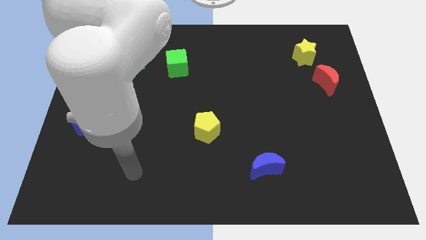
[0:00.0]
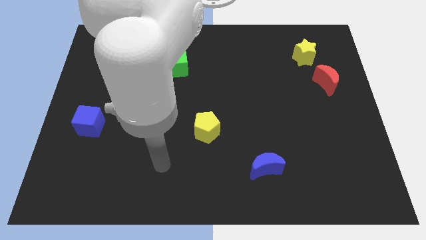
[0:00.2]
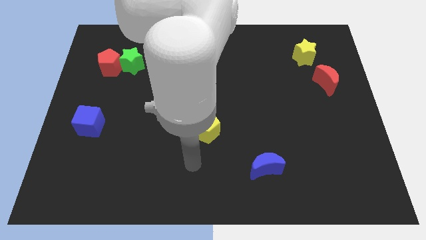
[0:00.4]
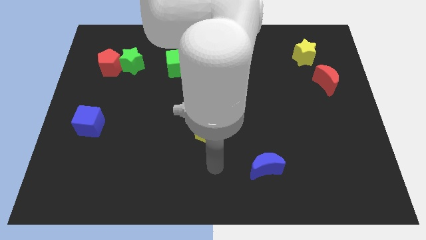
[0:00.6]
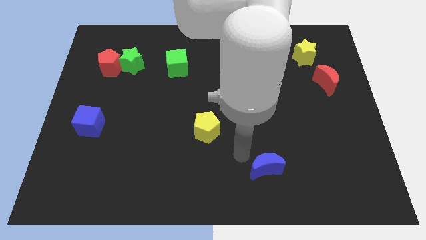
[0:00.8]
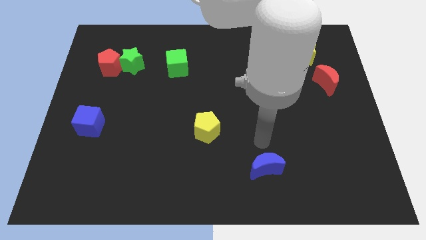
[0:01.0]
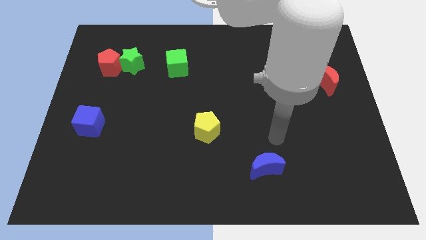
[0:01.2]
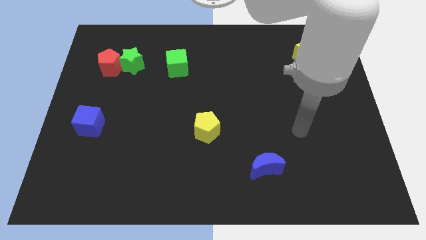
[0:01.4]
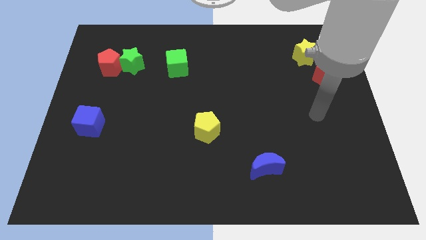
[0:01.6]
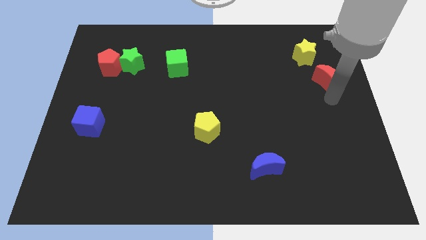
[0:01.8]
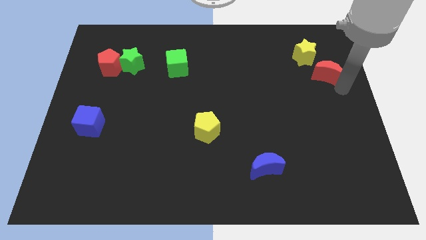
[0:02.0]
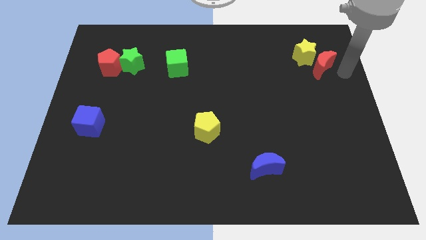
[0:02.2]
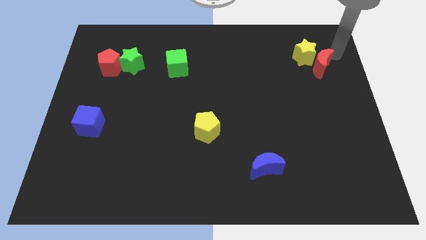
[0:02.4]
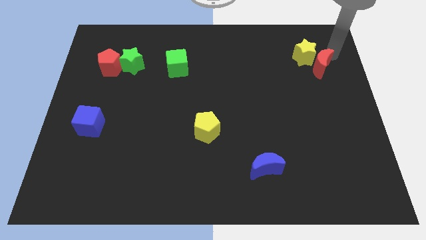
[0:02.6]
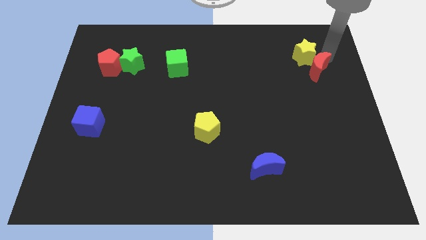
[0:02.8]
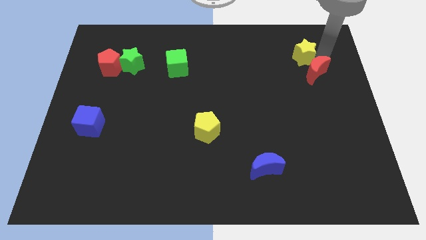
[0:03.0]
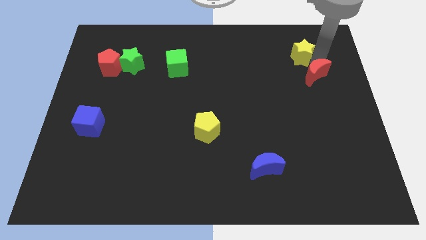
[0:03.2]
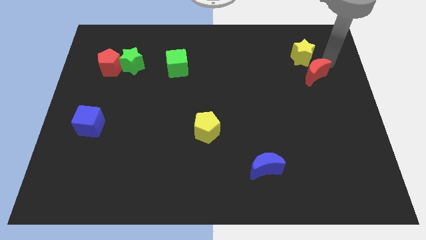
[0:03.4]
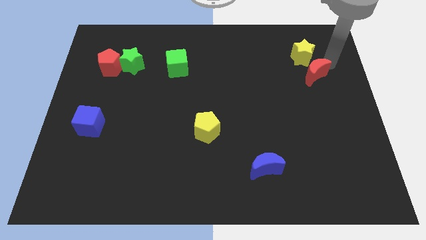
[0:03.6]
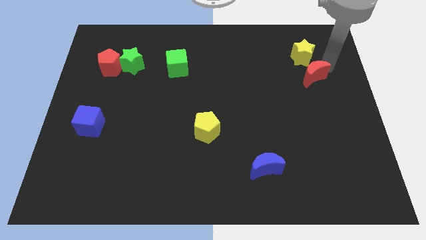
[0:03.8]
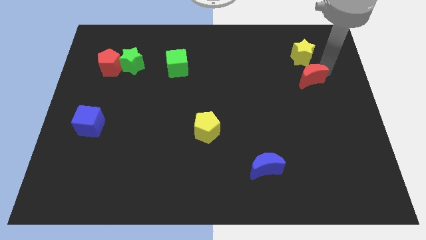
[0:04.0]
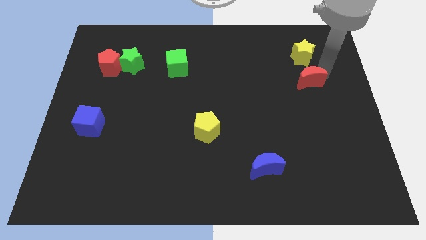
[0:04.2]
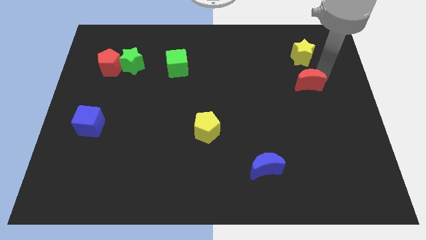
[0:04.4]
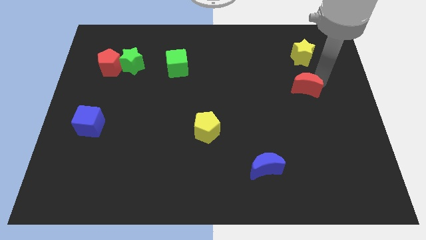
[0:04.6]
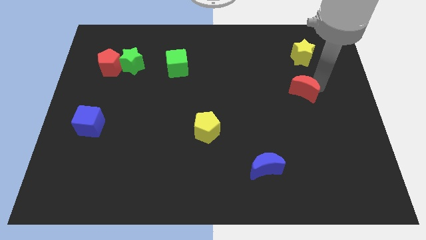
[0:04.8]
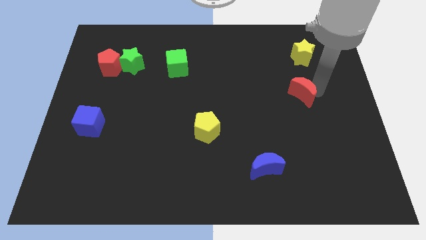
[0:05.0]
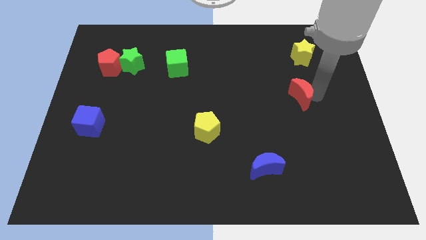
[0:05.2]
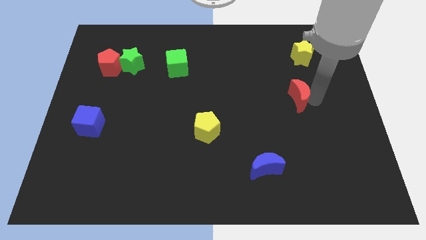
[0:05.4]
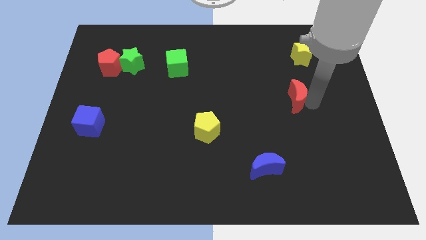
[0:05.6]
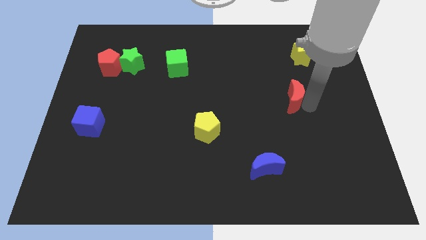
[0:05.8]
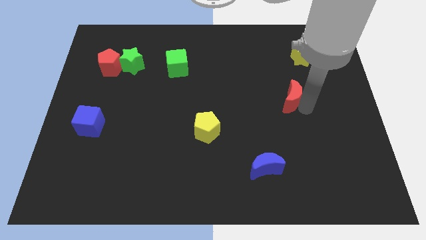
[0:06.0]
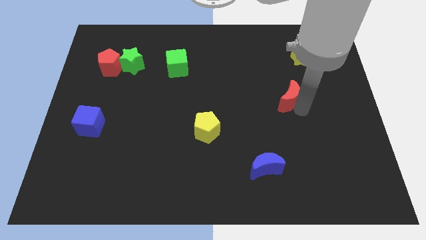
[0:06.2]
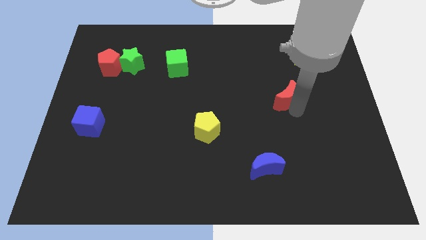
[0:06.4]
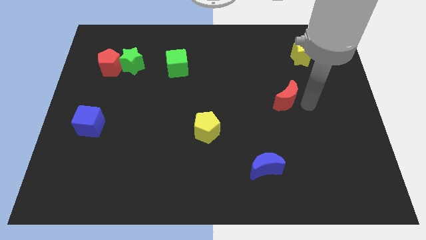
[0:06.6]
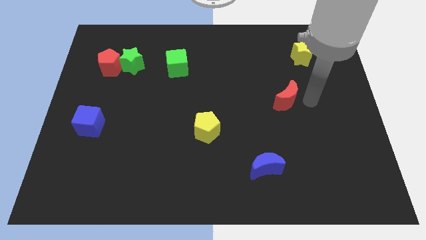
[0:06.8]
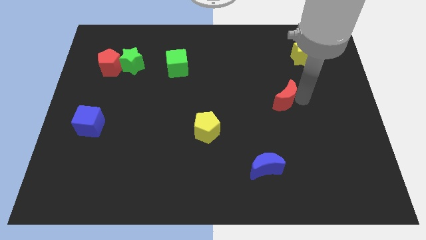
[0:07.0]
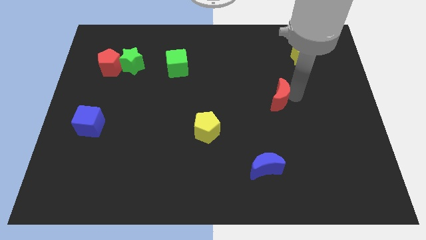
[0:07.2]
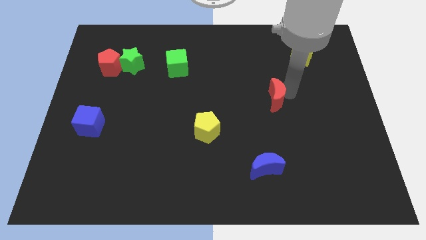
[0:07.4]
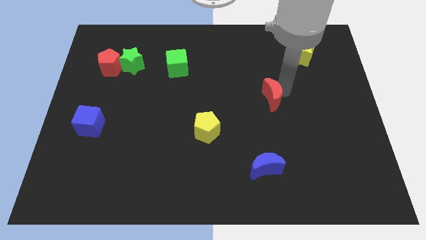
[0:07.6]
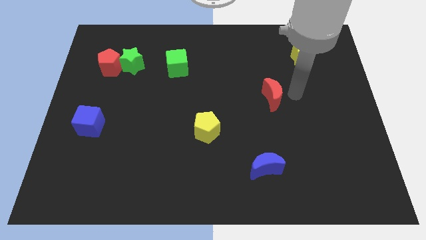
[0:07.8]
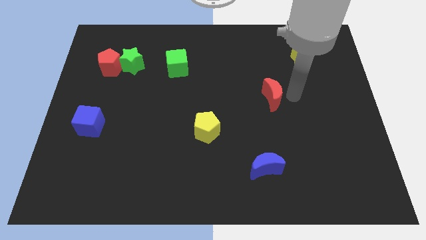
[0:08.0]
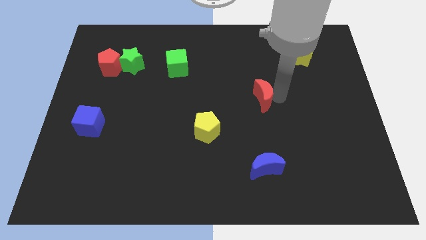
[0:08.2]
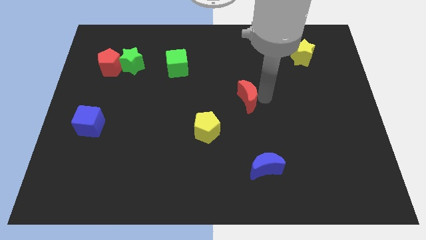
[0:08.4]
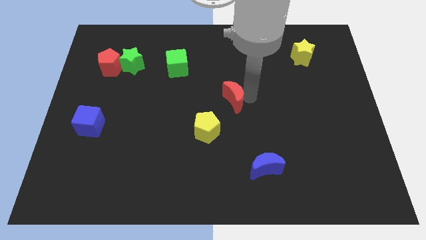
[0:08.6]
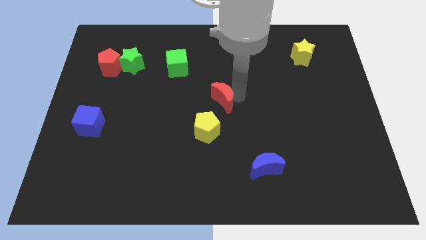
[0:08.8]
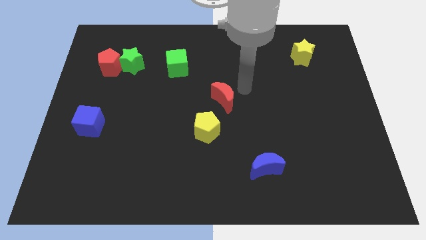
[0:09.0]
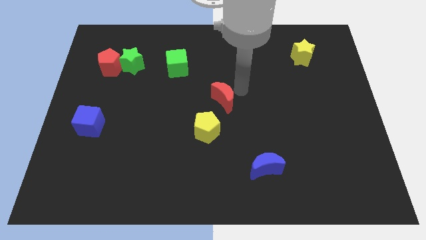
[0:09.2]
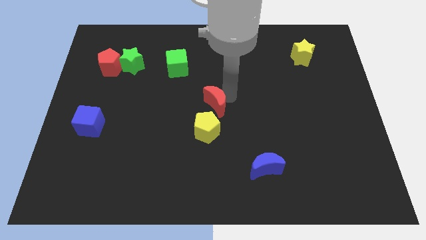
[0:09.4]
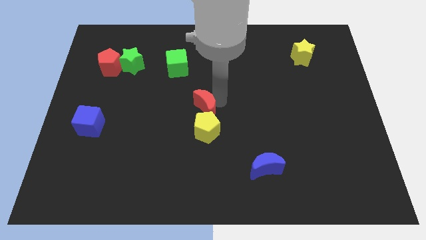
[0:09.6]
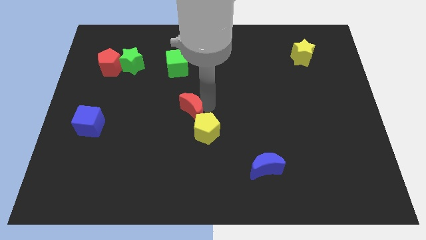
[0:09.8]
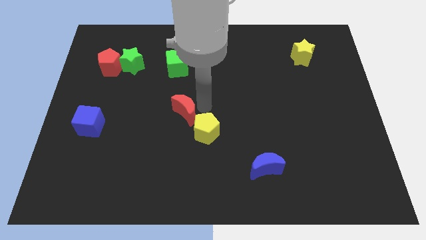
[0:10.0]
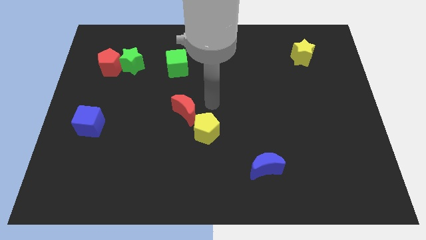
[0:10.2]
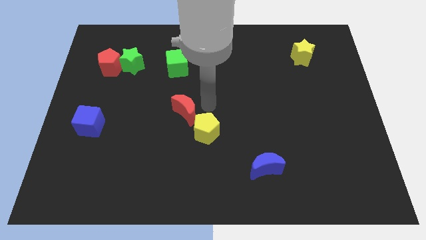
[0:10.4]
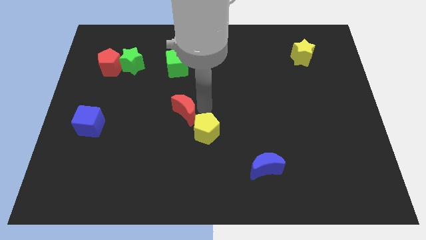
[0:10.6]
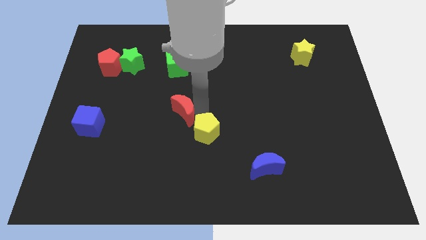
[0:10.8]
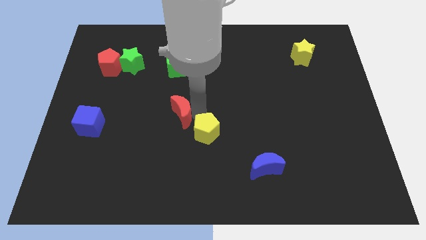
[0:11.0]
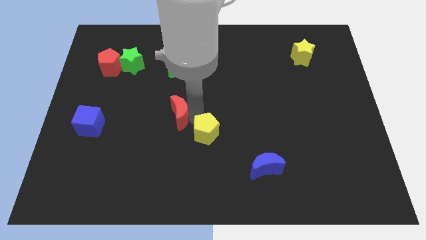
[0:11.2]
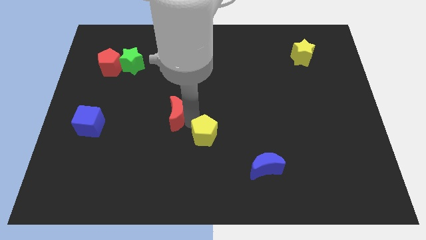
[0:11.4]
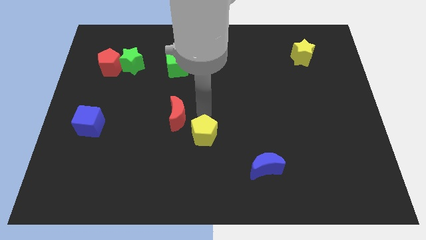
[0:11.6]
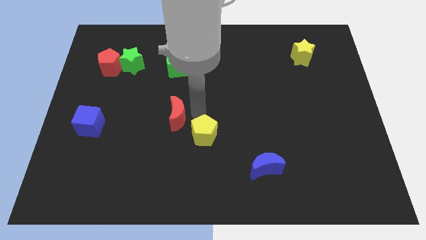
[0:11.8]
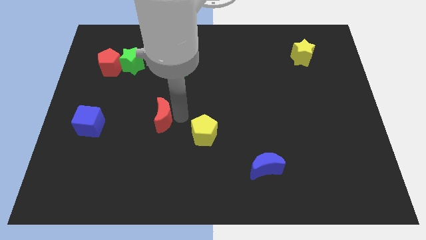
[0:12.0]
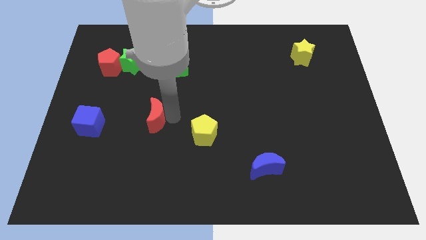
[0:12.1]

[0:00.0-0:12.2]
slide the red moon to the right side of the blue cube

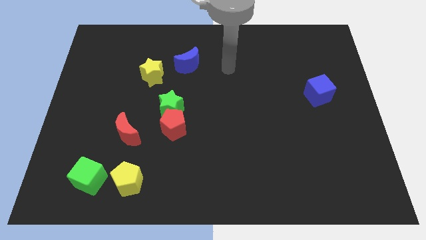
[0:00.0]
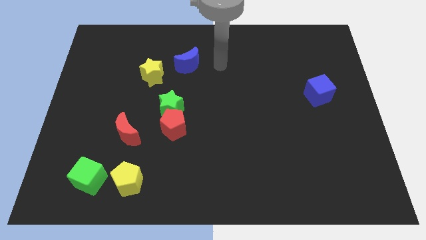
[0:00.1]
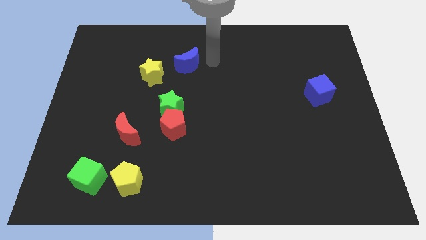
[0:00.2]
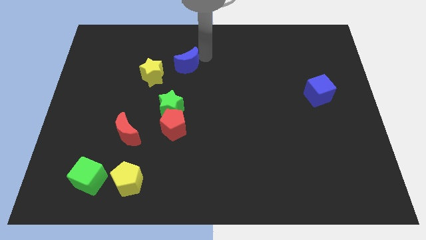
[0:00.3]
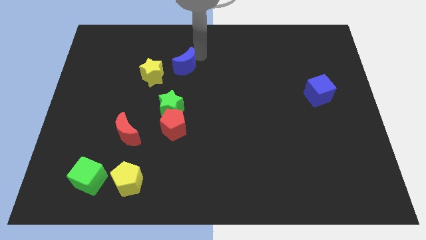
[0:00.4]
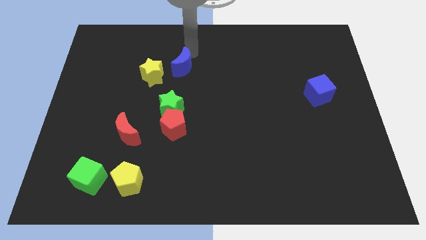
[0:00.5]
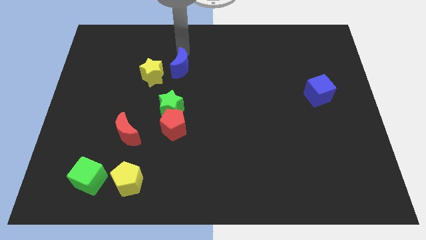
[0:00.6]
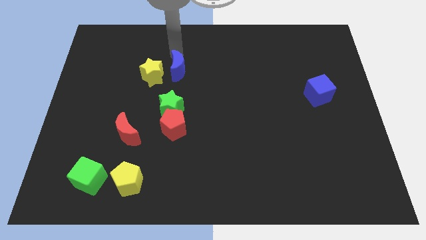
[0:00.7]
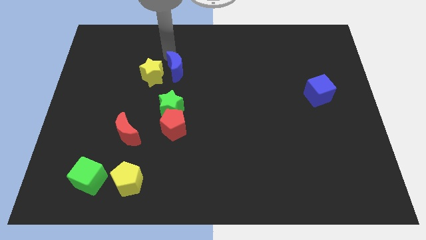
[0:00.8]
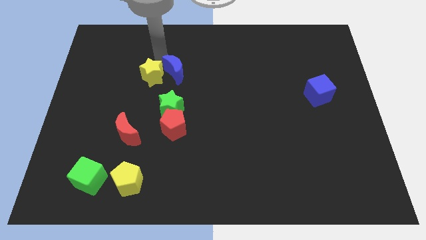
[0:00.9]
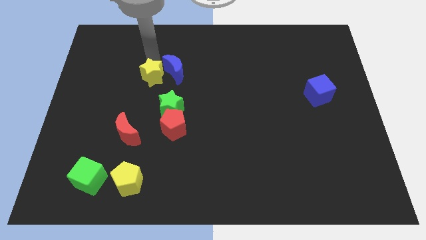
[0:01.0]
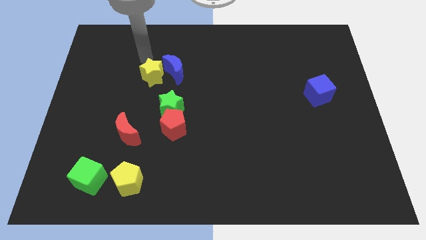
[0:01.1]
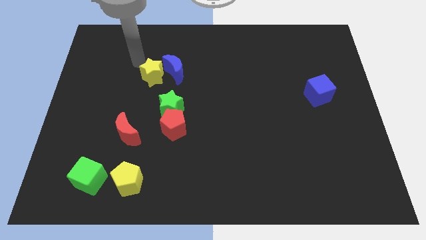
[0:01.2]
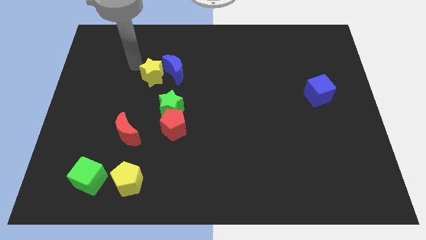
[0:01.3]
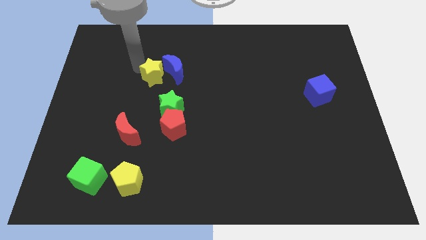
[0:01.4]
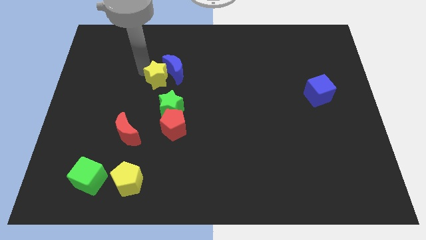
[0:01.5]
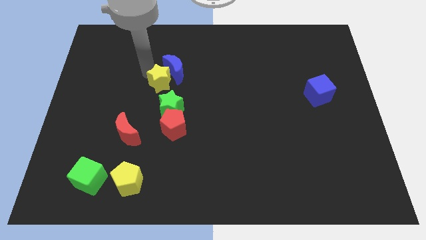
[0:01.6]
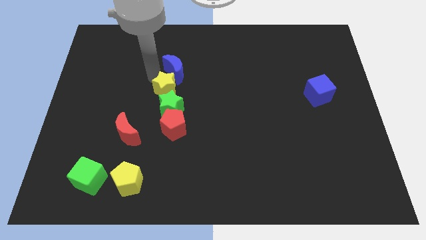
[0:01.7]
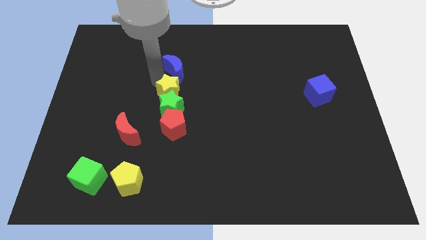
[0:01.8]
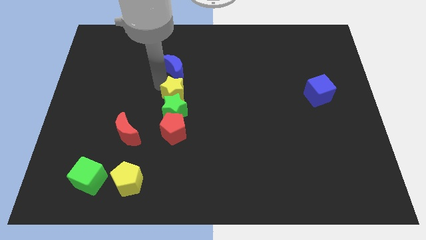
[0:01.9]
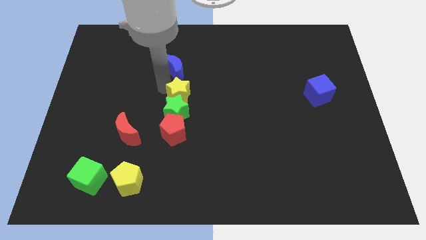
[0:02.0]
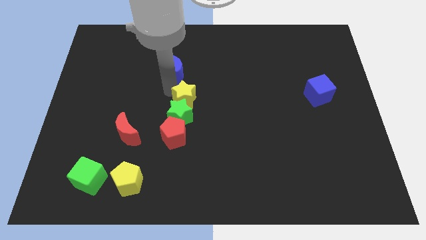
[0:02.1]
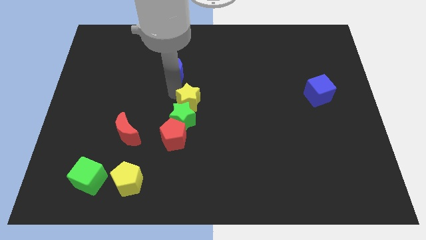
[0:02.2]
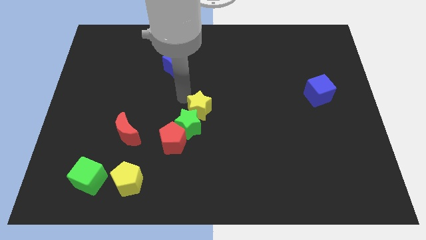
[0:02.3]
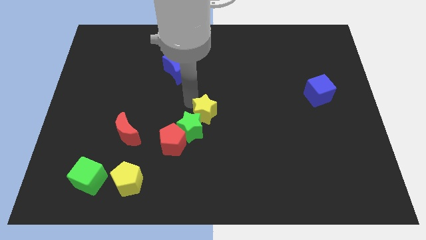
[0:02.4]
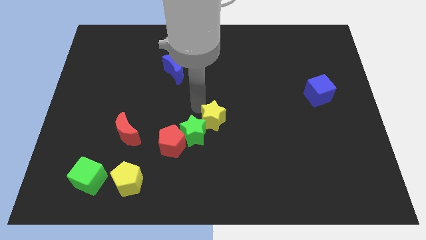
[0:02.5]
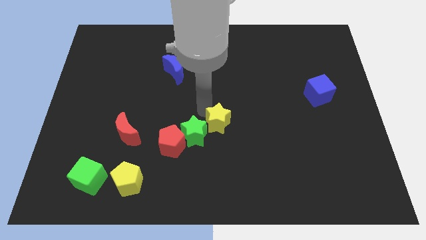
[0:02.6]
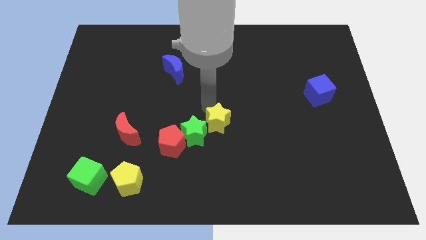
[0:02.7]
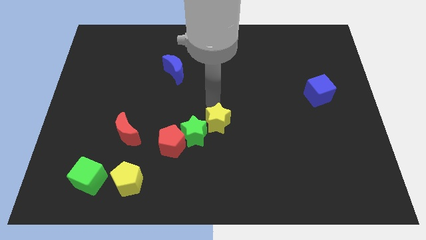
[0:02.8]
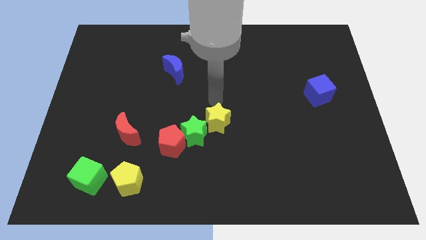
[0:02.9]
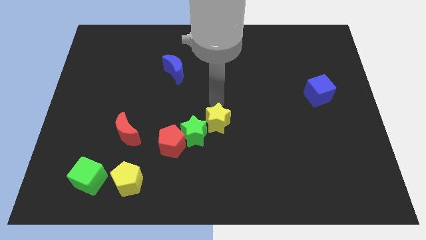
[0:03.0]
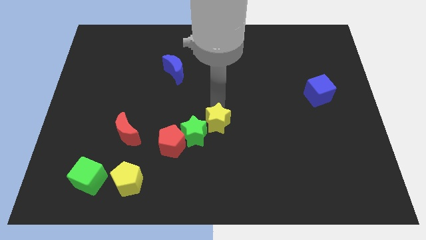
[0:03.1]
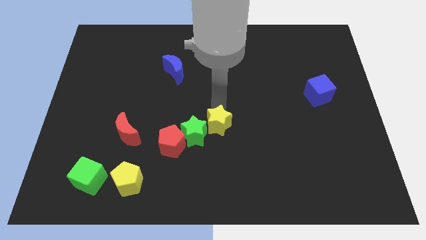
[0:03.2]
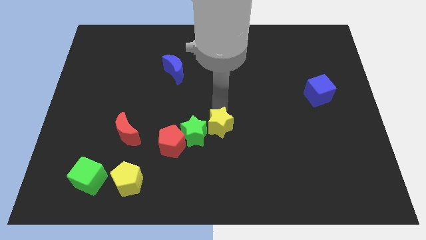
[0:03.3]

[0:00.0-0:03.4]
put the yellow star just right of the red pentagon
